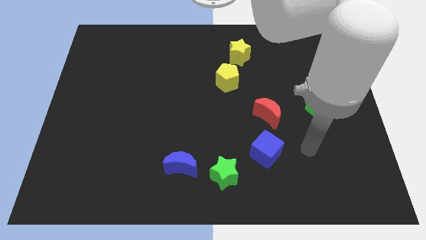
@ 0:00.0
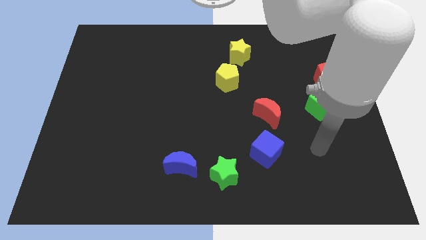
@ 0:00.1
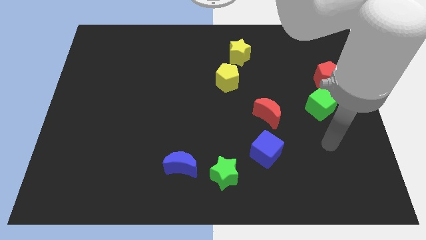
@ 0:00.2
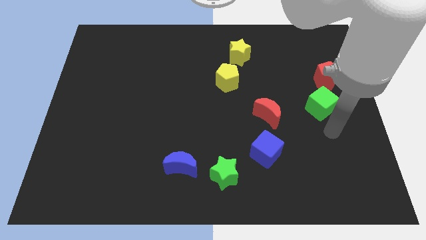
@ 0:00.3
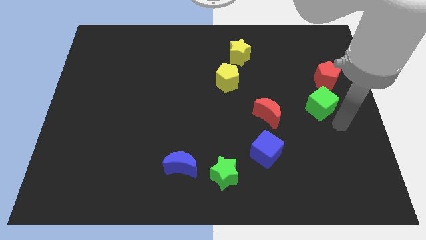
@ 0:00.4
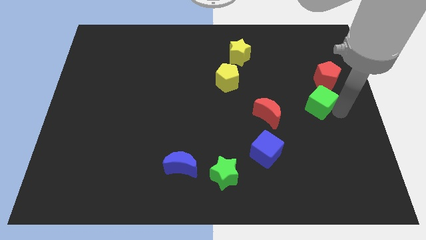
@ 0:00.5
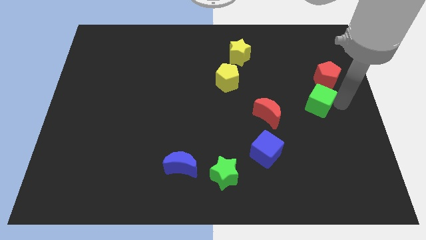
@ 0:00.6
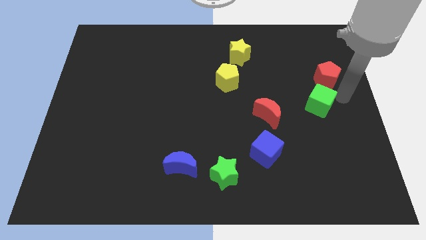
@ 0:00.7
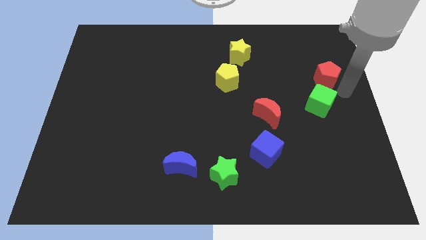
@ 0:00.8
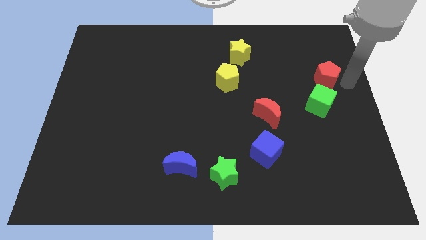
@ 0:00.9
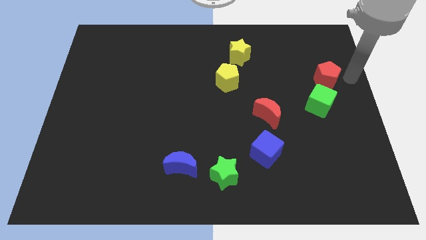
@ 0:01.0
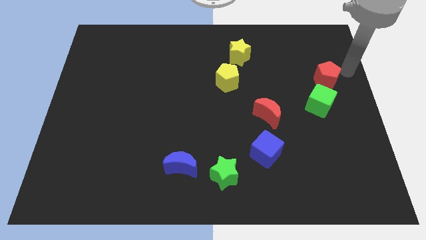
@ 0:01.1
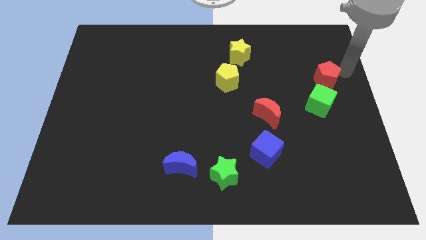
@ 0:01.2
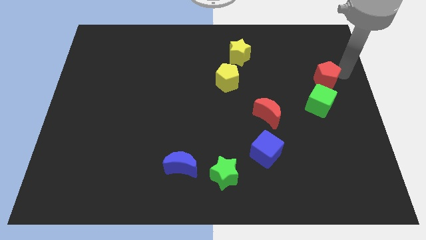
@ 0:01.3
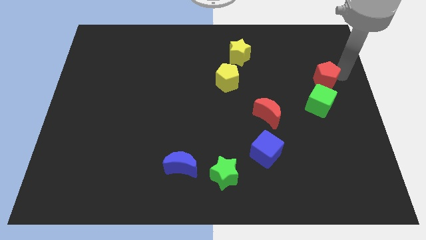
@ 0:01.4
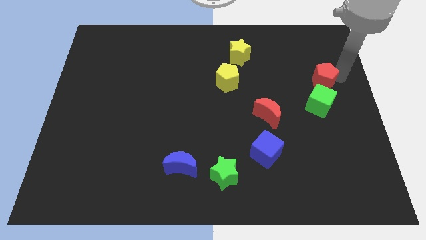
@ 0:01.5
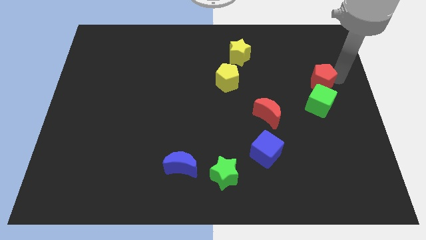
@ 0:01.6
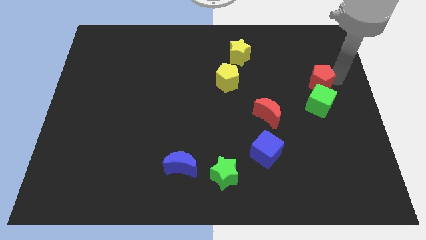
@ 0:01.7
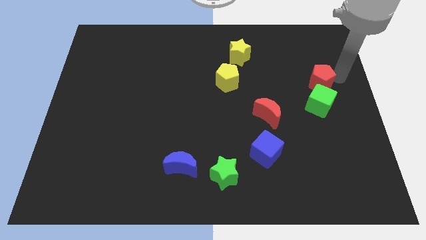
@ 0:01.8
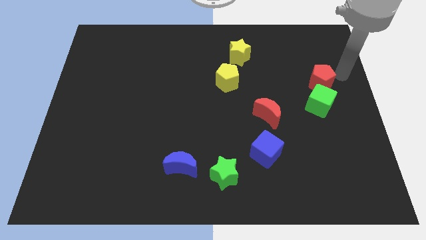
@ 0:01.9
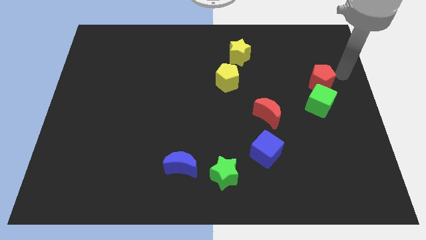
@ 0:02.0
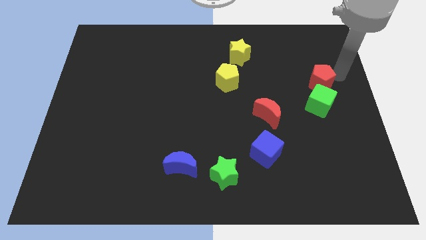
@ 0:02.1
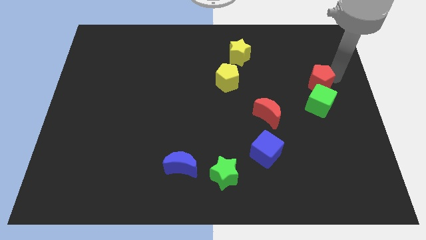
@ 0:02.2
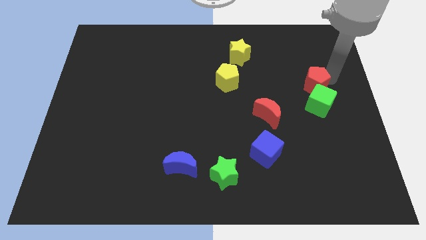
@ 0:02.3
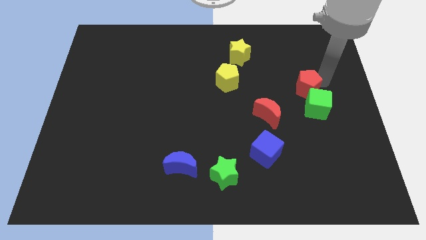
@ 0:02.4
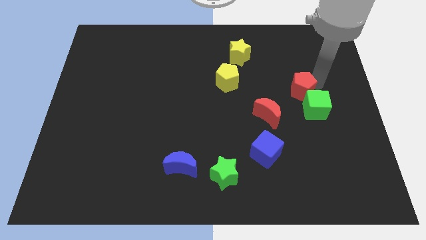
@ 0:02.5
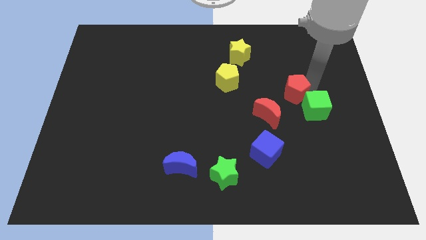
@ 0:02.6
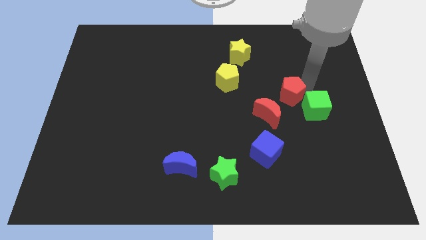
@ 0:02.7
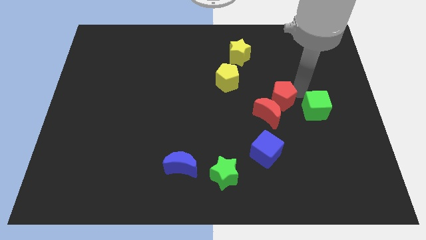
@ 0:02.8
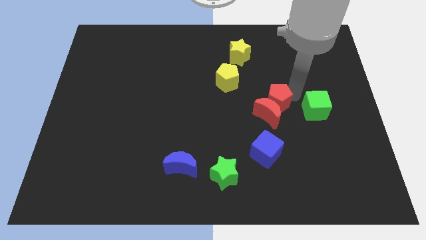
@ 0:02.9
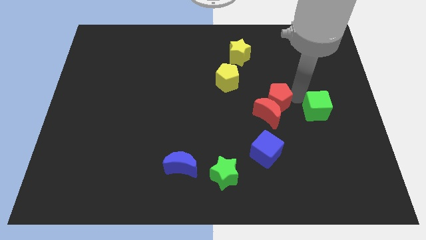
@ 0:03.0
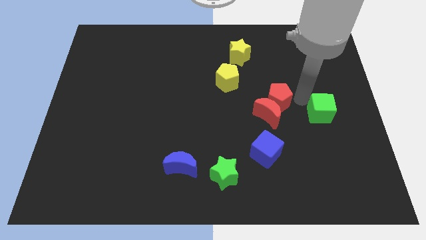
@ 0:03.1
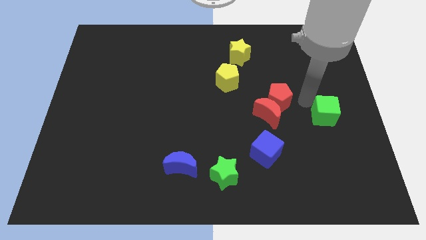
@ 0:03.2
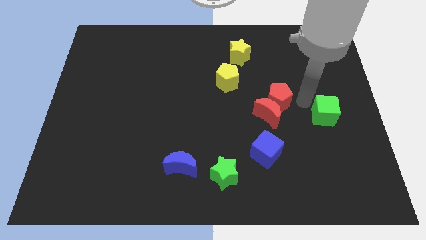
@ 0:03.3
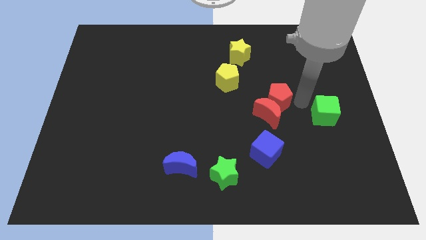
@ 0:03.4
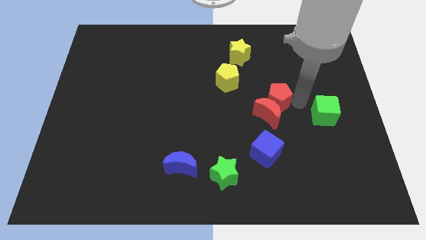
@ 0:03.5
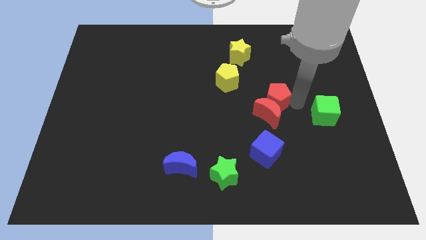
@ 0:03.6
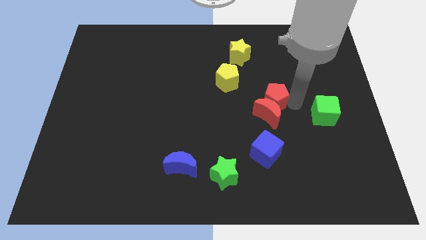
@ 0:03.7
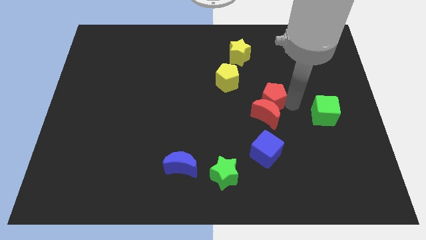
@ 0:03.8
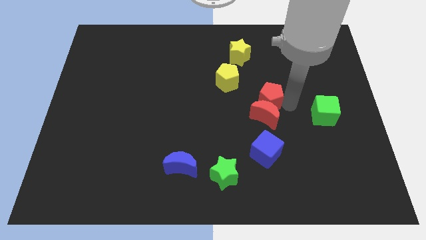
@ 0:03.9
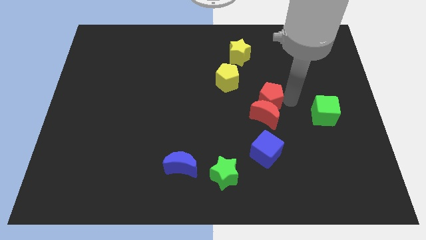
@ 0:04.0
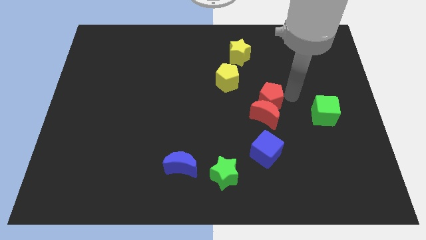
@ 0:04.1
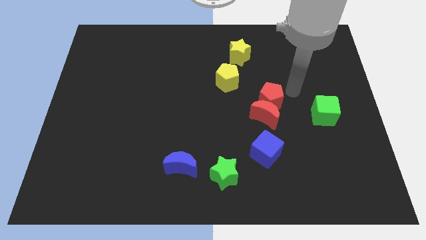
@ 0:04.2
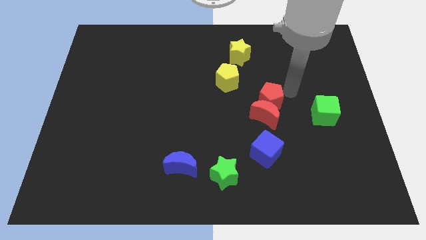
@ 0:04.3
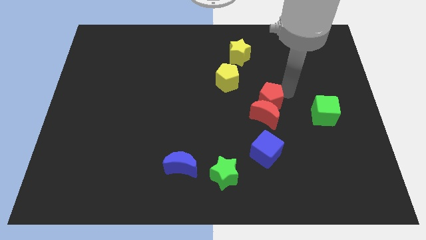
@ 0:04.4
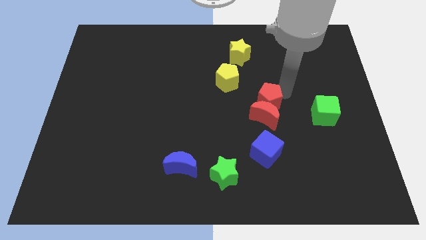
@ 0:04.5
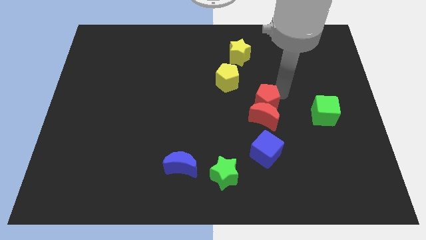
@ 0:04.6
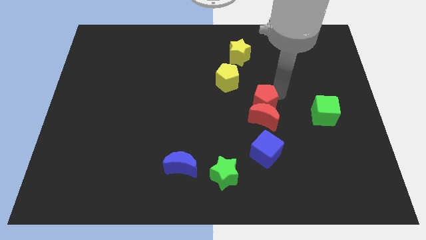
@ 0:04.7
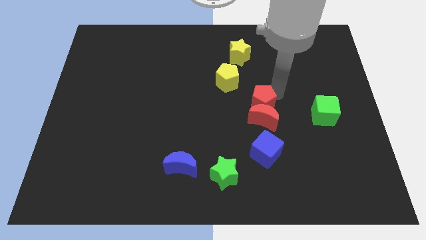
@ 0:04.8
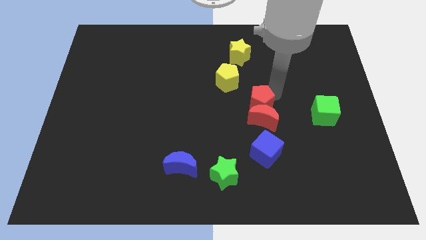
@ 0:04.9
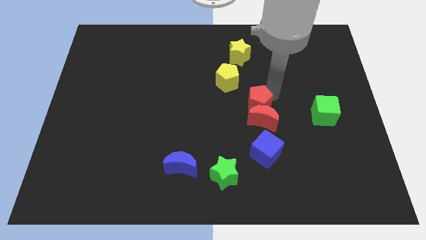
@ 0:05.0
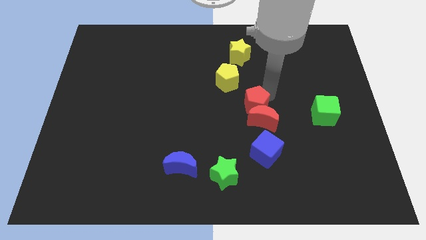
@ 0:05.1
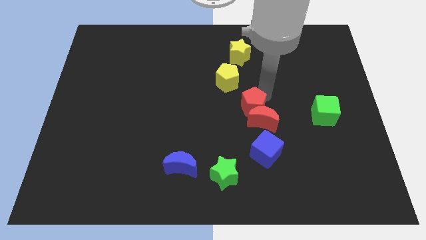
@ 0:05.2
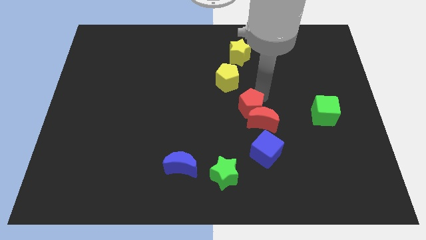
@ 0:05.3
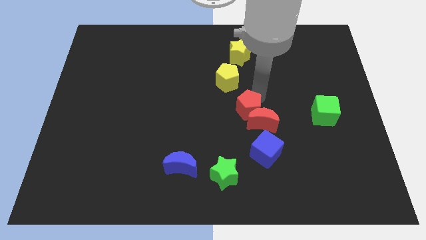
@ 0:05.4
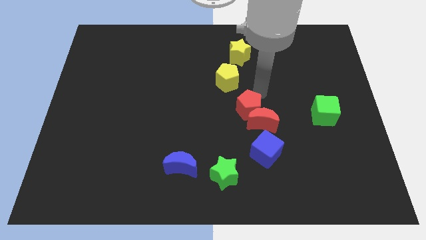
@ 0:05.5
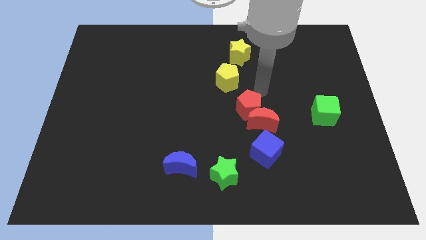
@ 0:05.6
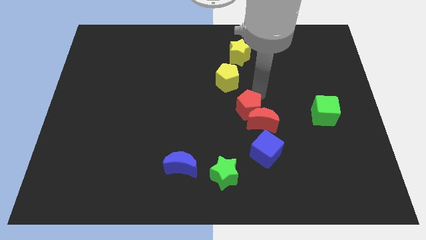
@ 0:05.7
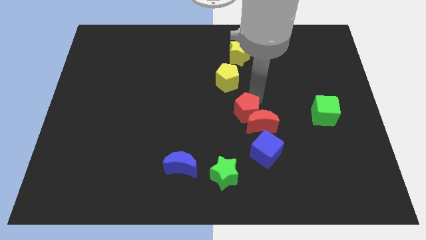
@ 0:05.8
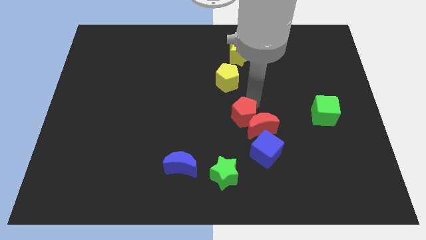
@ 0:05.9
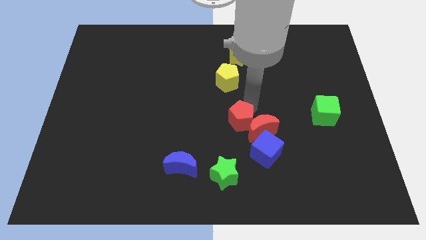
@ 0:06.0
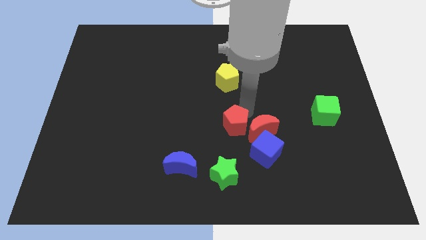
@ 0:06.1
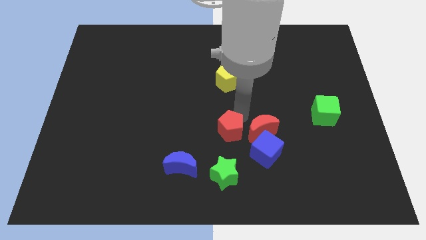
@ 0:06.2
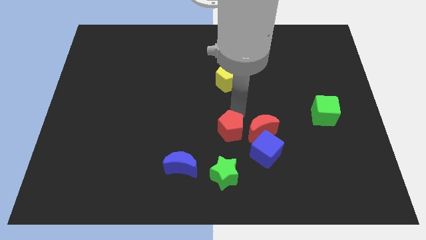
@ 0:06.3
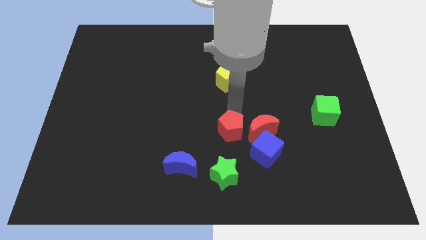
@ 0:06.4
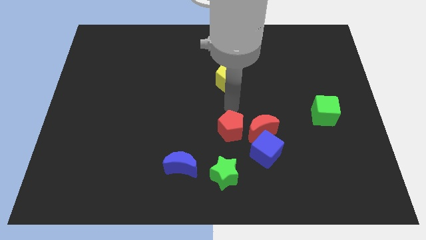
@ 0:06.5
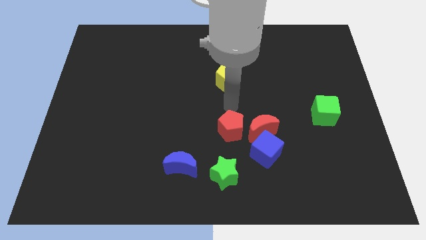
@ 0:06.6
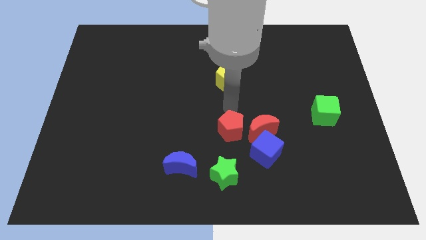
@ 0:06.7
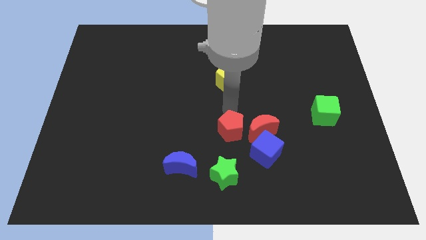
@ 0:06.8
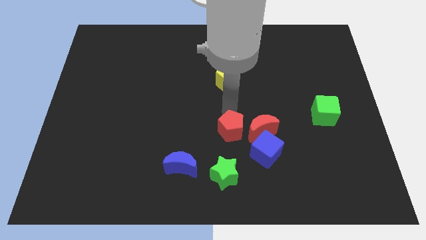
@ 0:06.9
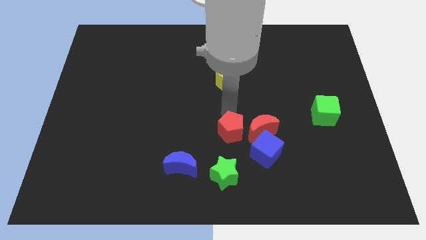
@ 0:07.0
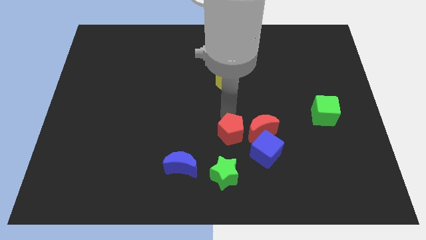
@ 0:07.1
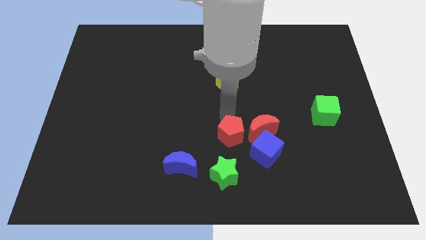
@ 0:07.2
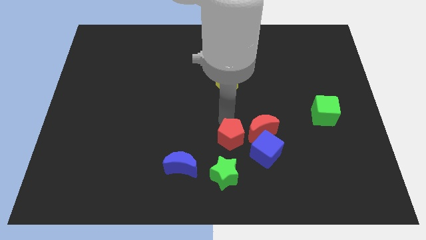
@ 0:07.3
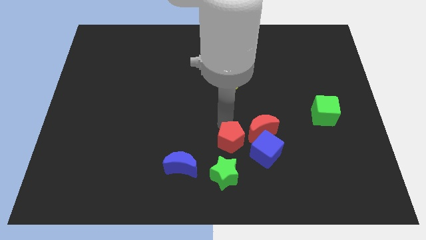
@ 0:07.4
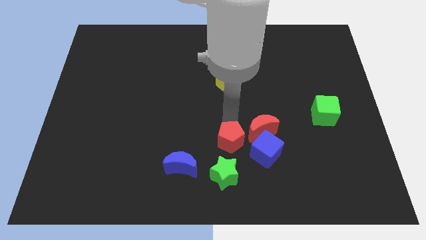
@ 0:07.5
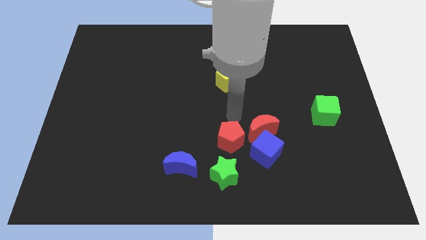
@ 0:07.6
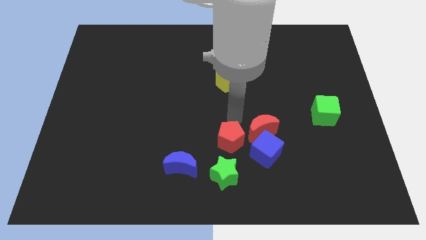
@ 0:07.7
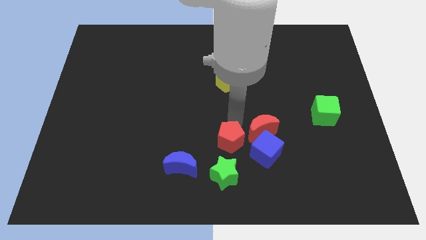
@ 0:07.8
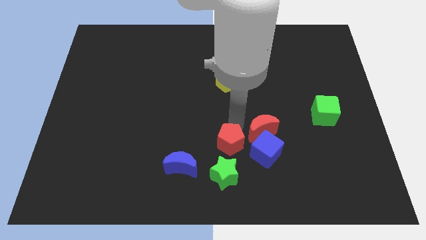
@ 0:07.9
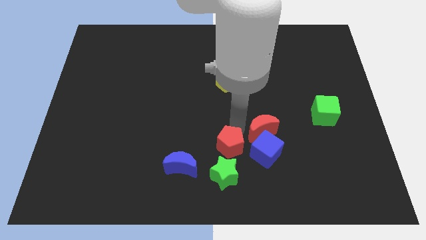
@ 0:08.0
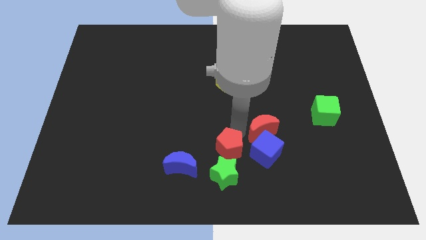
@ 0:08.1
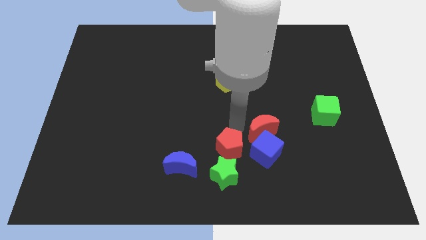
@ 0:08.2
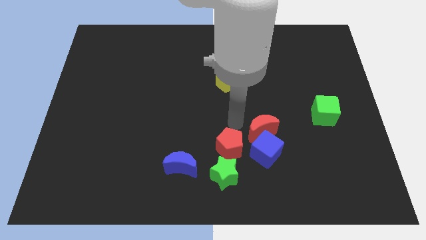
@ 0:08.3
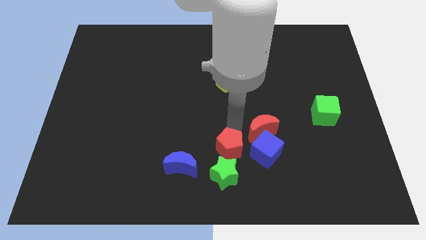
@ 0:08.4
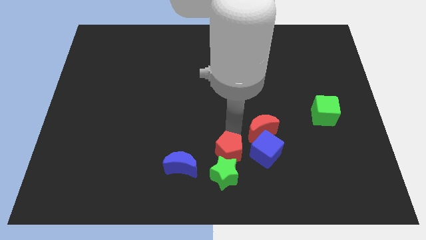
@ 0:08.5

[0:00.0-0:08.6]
slide the red pentagon towards the green star
